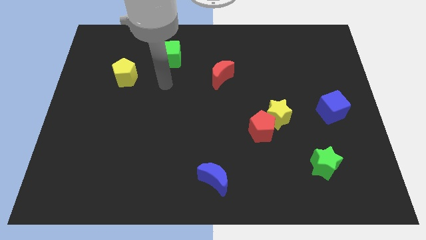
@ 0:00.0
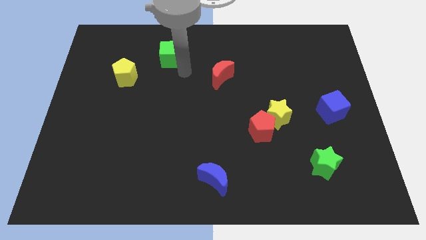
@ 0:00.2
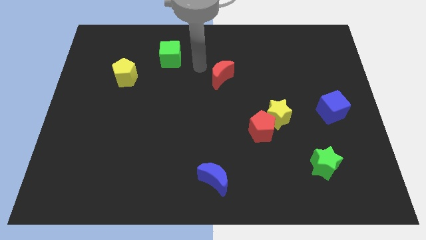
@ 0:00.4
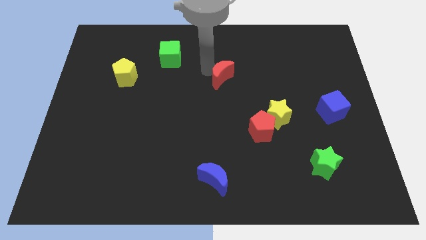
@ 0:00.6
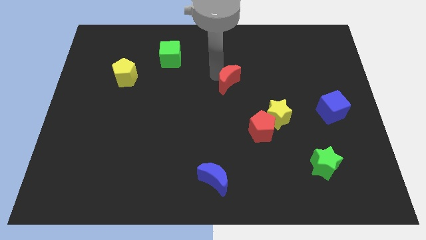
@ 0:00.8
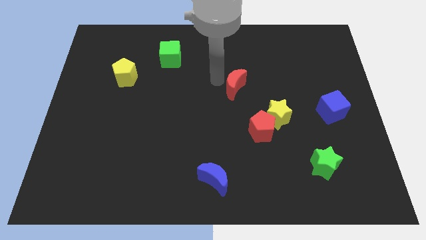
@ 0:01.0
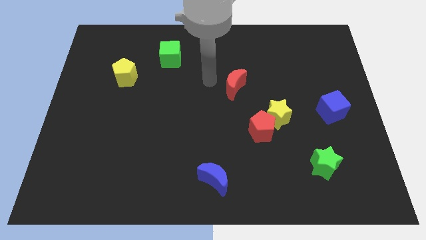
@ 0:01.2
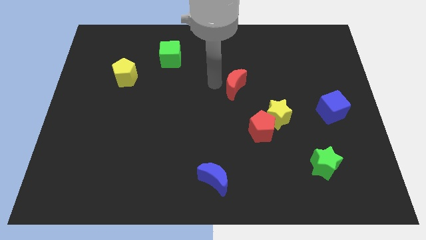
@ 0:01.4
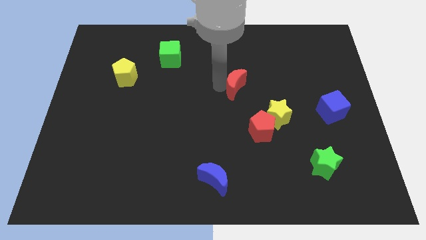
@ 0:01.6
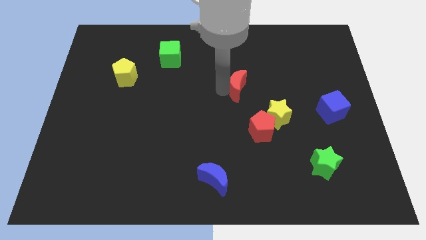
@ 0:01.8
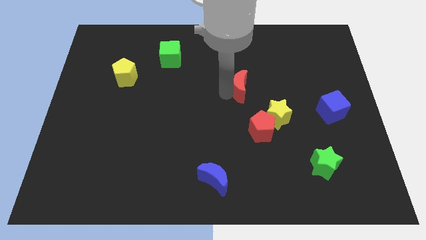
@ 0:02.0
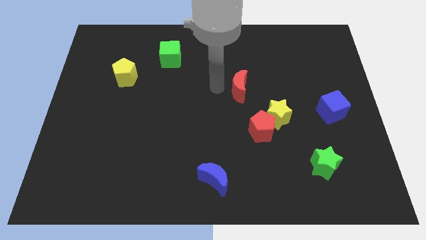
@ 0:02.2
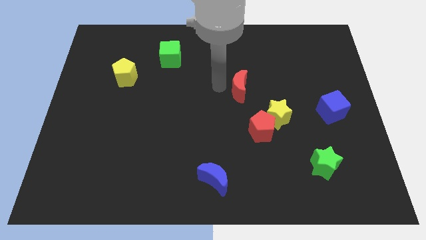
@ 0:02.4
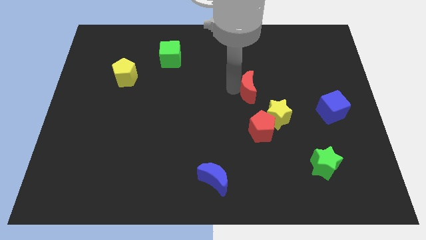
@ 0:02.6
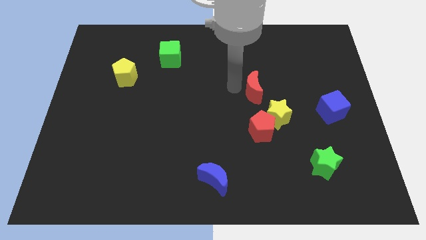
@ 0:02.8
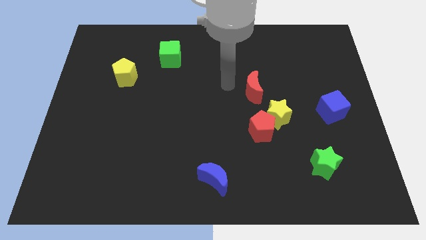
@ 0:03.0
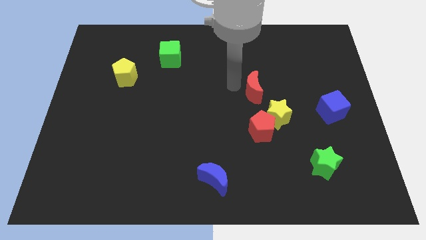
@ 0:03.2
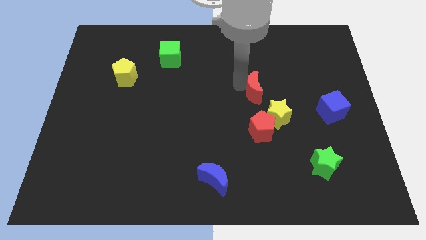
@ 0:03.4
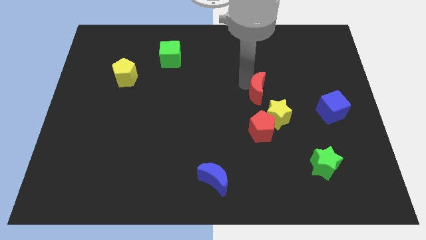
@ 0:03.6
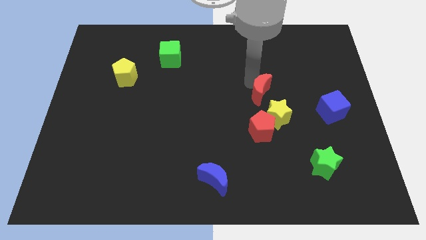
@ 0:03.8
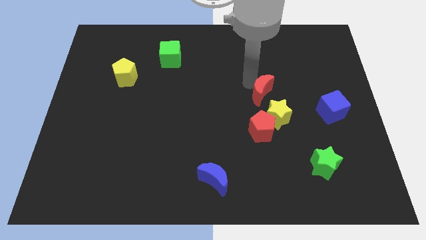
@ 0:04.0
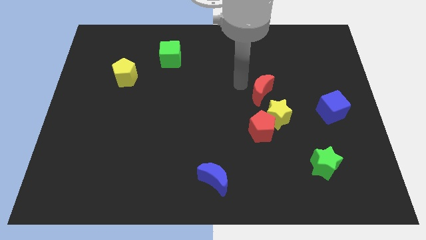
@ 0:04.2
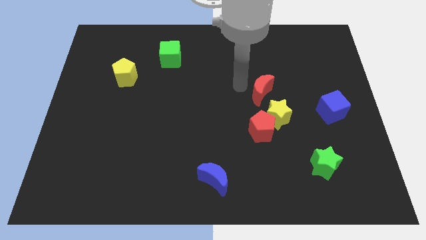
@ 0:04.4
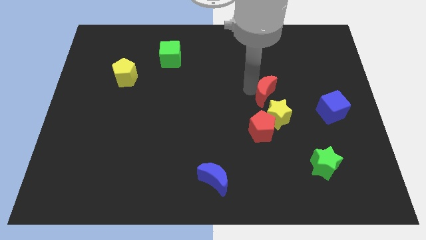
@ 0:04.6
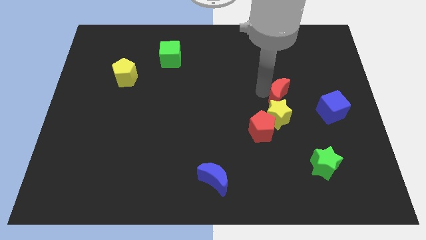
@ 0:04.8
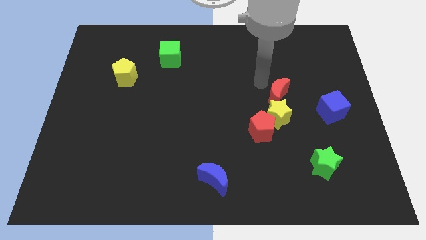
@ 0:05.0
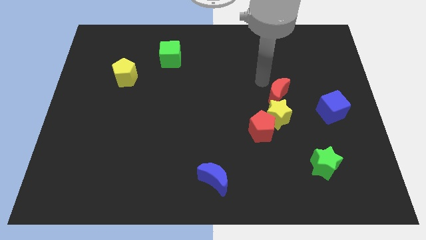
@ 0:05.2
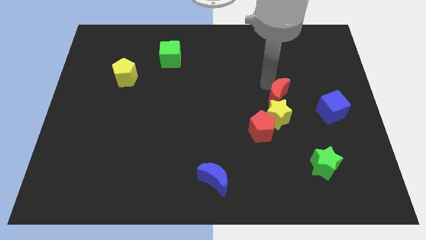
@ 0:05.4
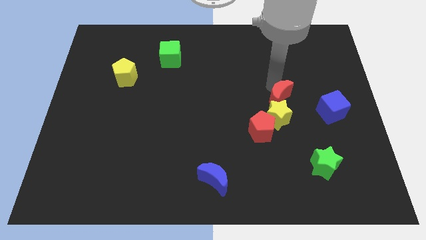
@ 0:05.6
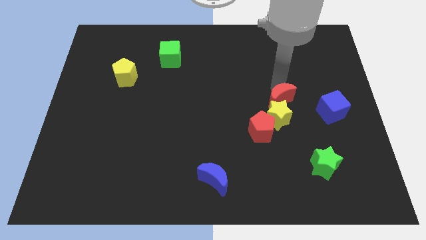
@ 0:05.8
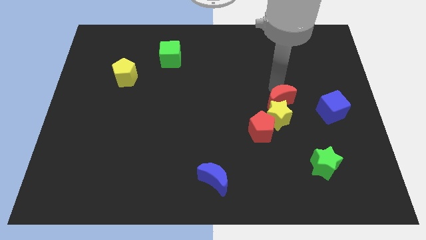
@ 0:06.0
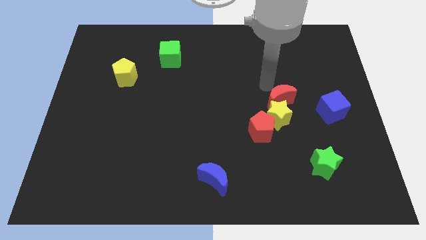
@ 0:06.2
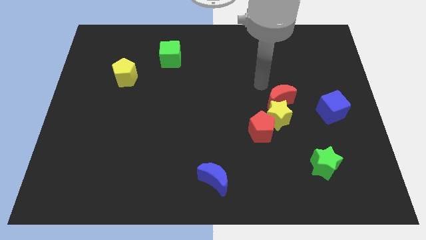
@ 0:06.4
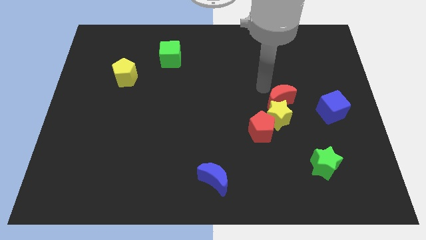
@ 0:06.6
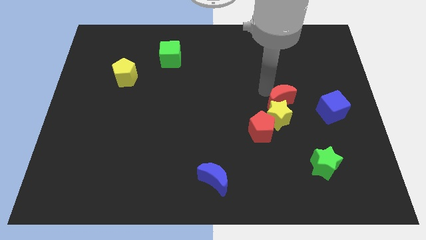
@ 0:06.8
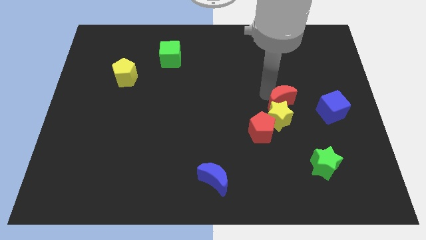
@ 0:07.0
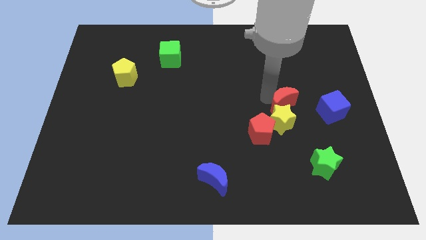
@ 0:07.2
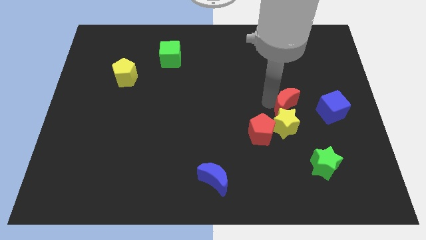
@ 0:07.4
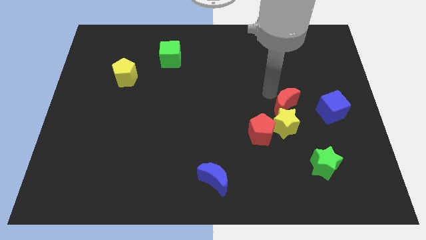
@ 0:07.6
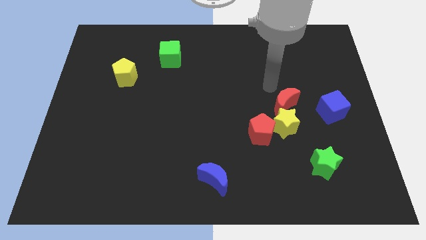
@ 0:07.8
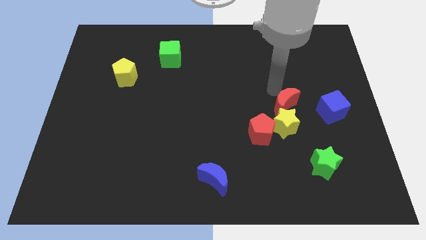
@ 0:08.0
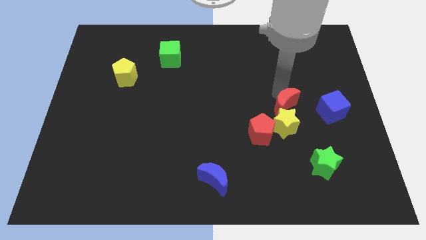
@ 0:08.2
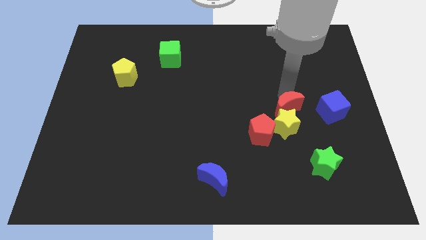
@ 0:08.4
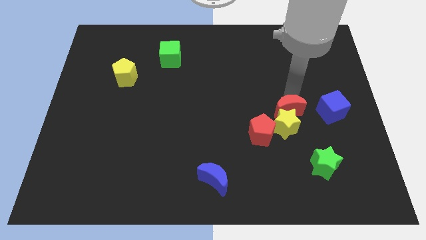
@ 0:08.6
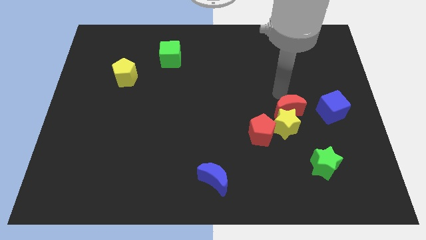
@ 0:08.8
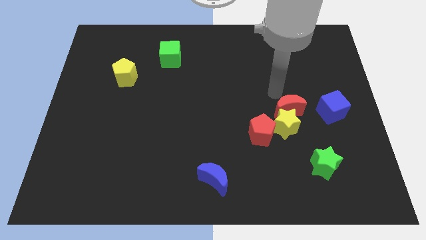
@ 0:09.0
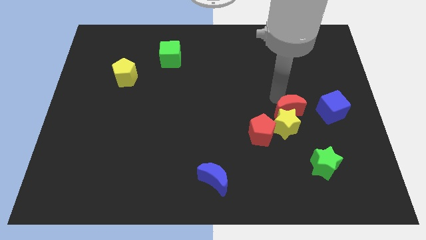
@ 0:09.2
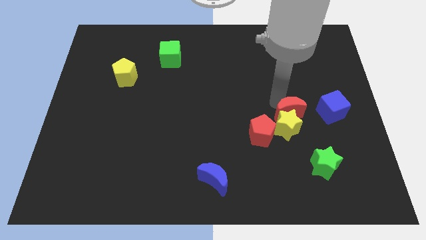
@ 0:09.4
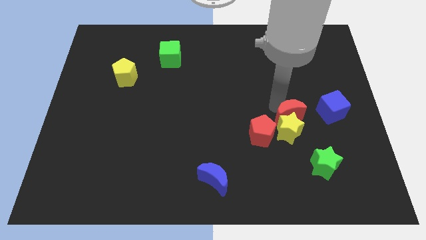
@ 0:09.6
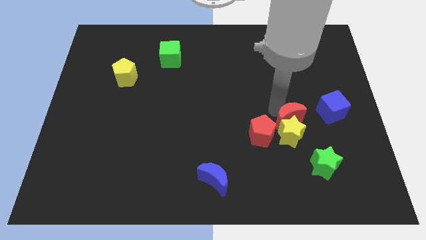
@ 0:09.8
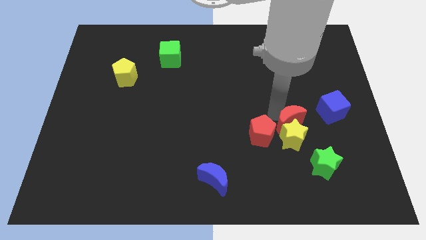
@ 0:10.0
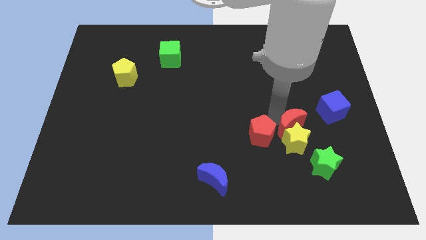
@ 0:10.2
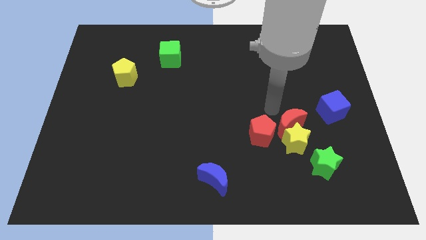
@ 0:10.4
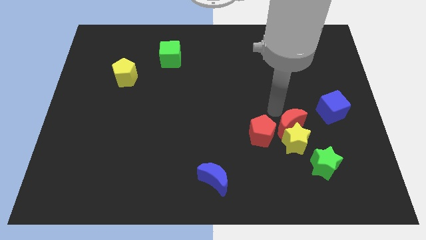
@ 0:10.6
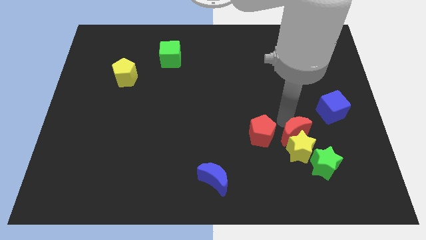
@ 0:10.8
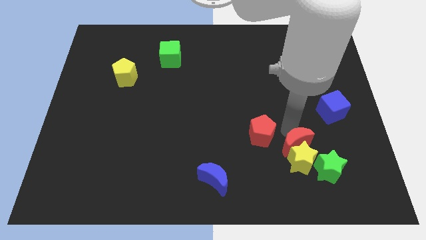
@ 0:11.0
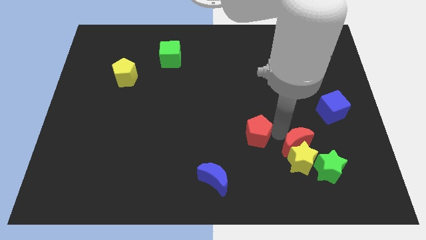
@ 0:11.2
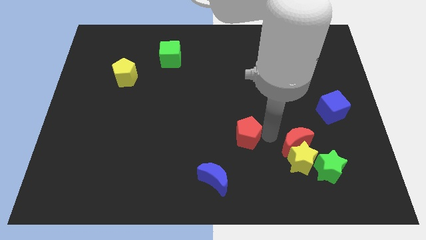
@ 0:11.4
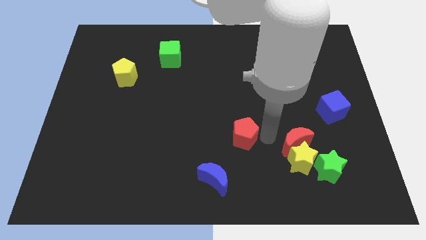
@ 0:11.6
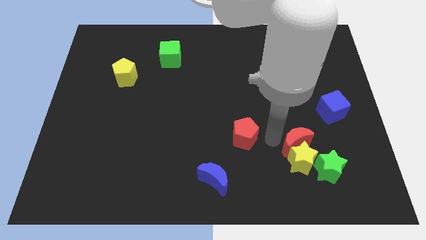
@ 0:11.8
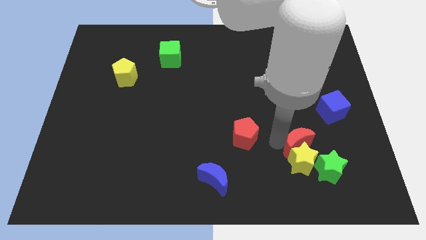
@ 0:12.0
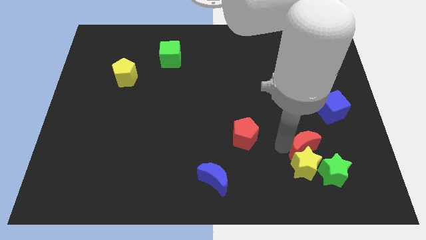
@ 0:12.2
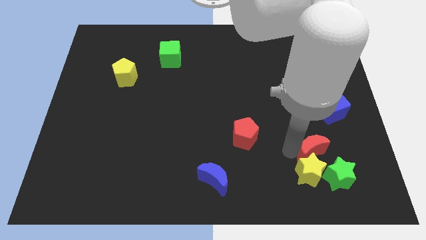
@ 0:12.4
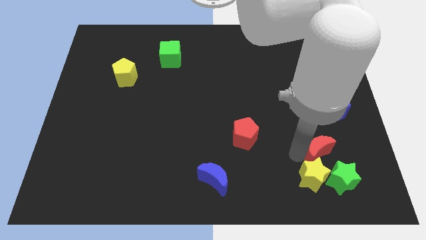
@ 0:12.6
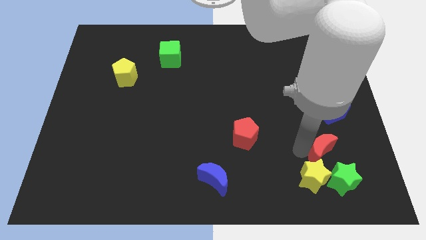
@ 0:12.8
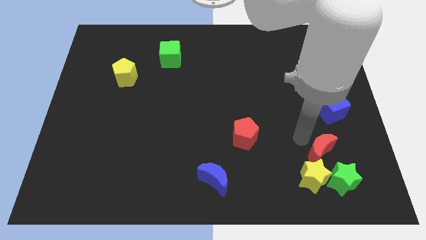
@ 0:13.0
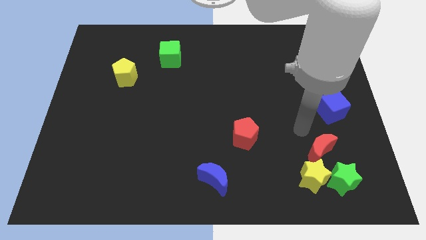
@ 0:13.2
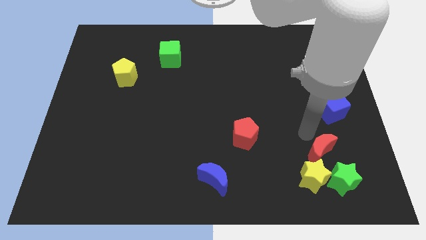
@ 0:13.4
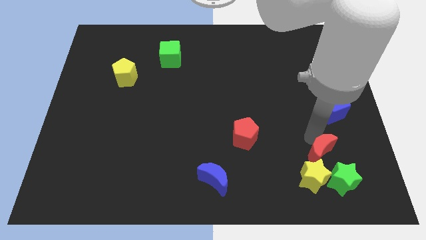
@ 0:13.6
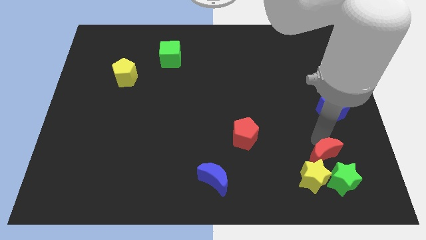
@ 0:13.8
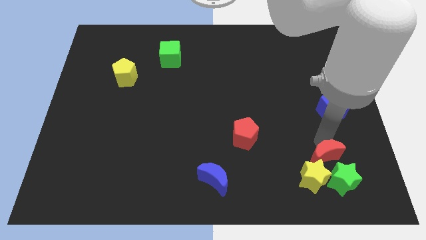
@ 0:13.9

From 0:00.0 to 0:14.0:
move the red moon close to the green star
